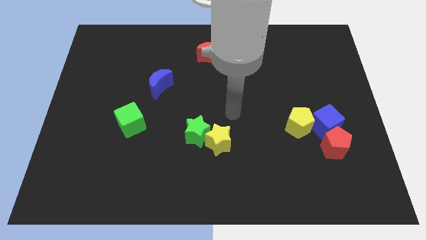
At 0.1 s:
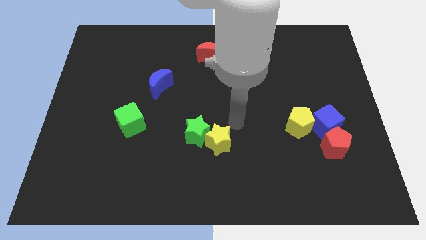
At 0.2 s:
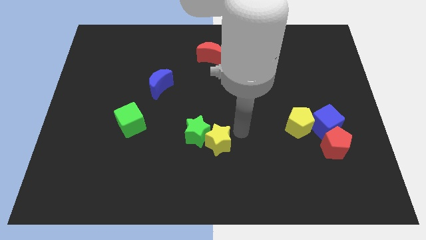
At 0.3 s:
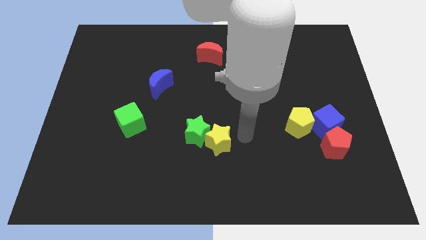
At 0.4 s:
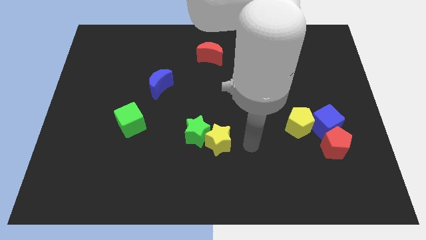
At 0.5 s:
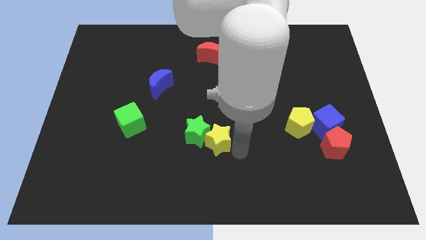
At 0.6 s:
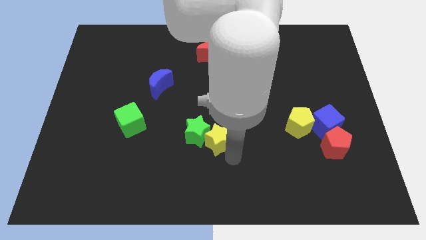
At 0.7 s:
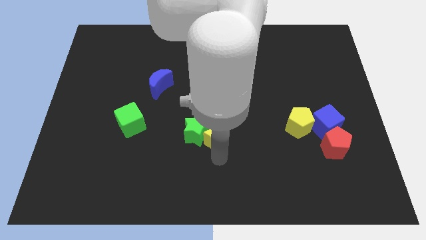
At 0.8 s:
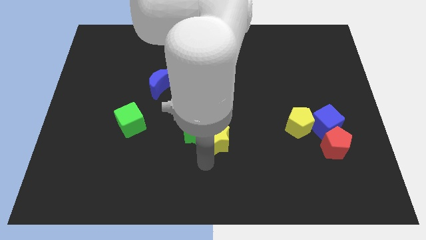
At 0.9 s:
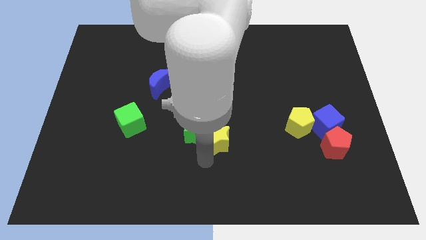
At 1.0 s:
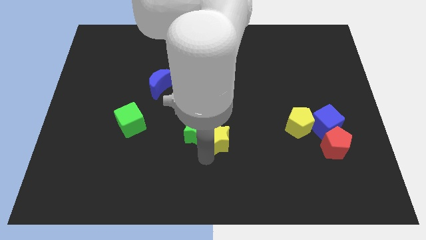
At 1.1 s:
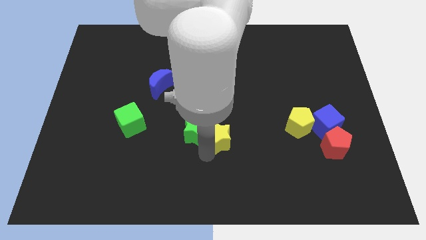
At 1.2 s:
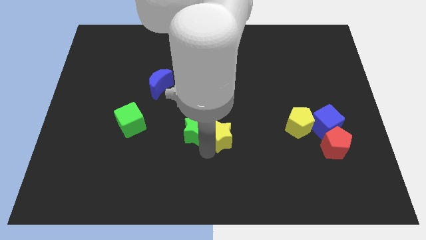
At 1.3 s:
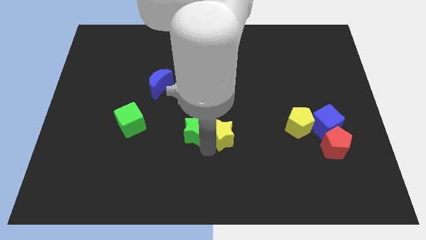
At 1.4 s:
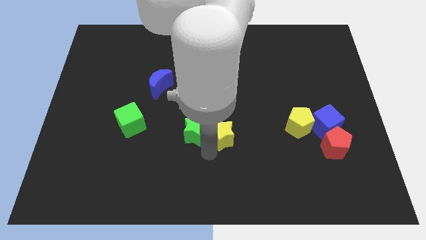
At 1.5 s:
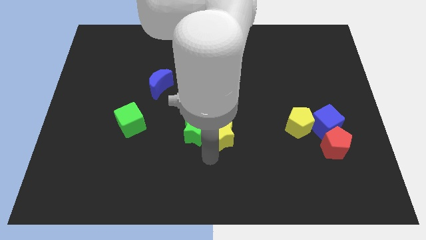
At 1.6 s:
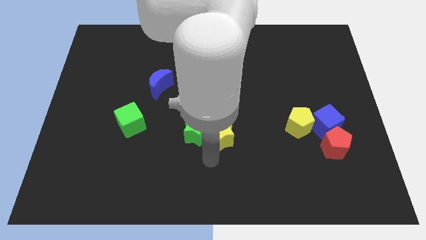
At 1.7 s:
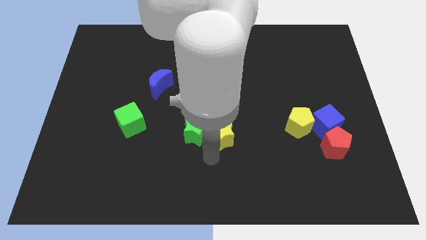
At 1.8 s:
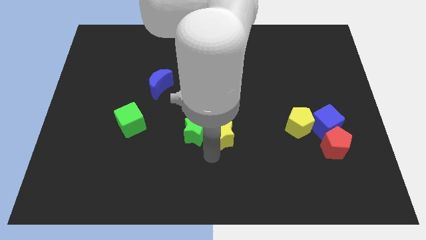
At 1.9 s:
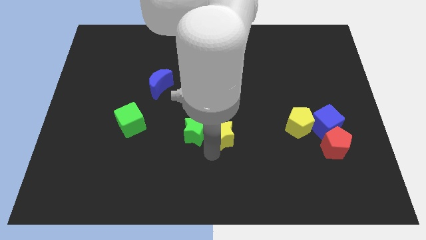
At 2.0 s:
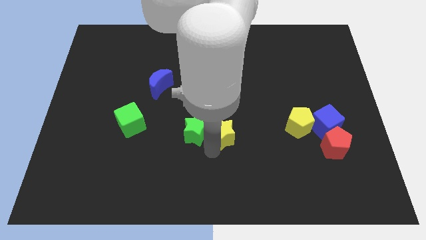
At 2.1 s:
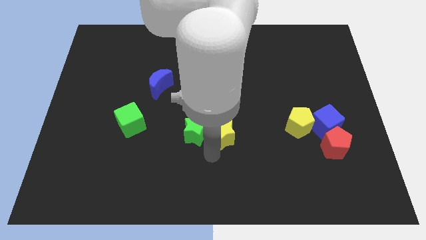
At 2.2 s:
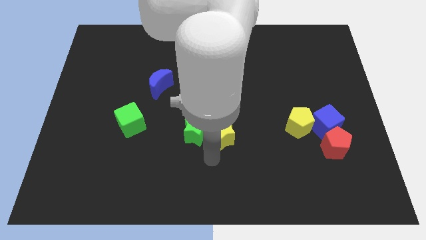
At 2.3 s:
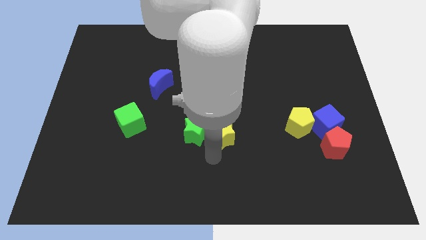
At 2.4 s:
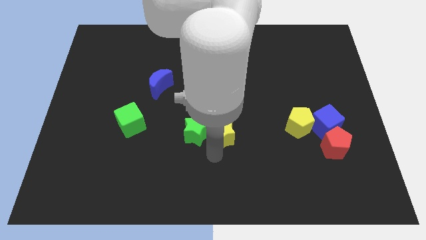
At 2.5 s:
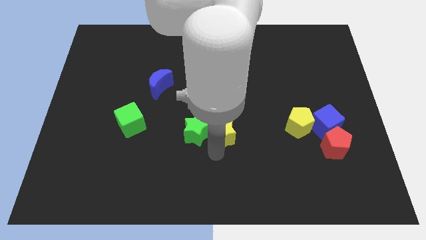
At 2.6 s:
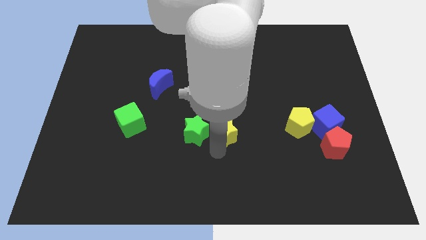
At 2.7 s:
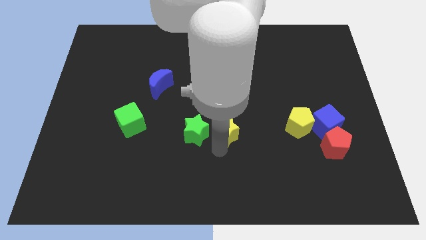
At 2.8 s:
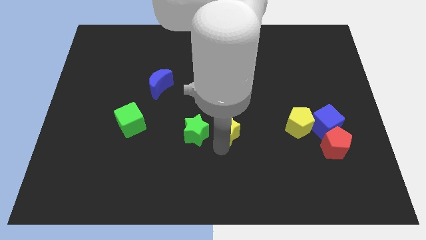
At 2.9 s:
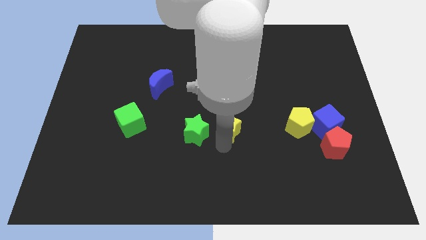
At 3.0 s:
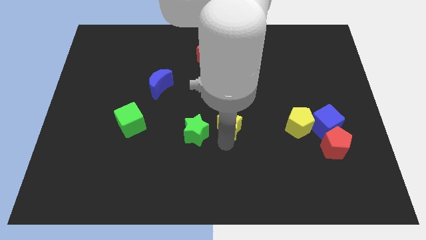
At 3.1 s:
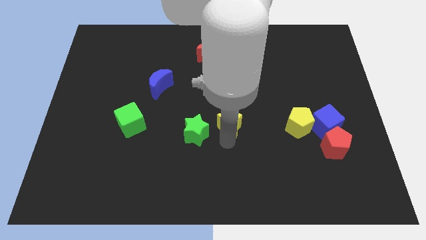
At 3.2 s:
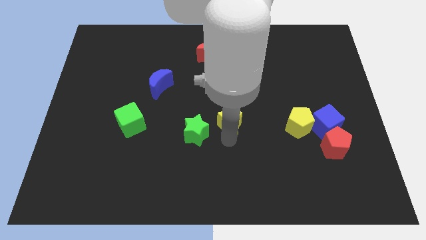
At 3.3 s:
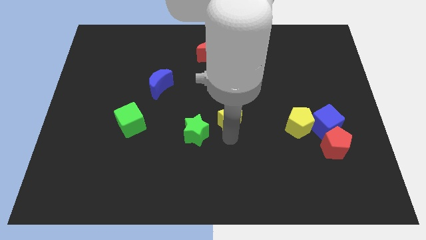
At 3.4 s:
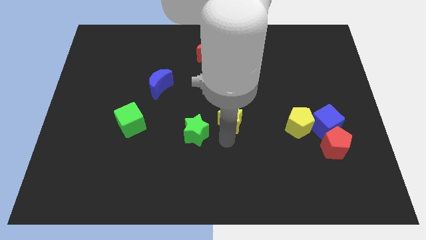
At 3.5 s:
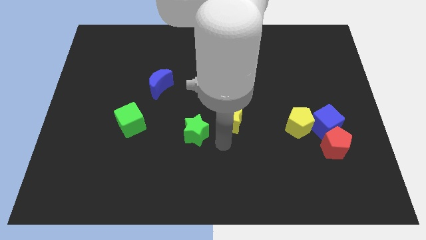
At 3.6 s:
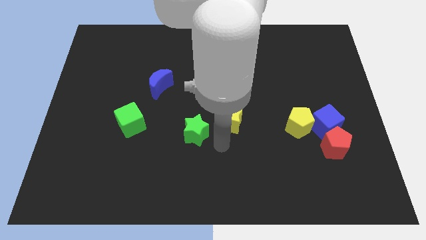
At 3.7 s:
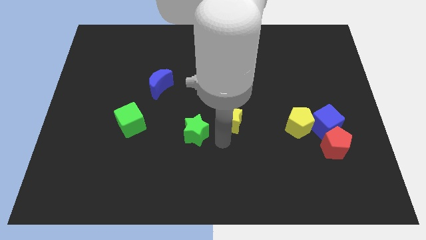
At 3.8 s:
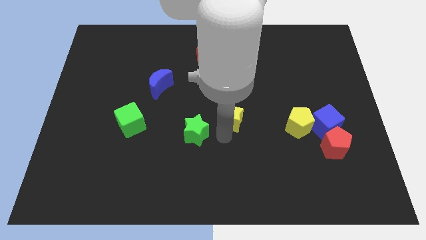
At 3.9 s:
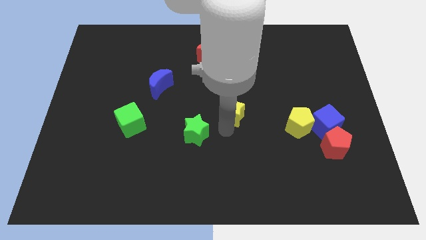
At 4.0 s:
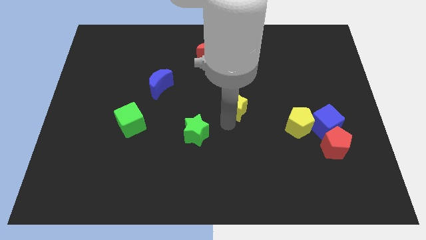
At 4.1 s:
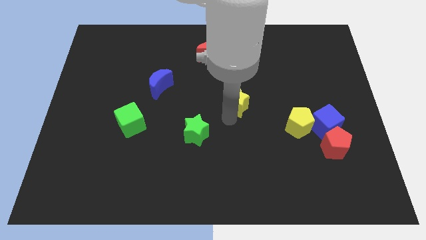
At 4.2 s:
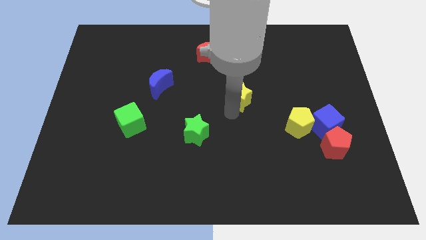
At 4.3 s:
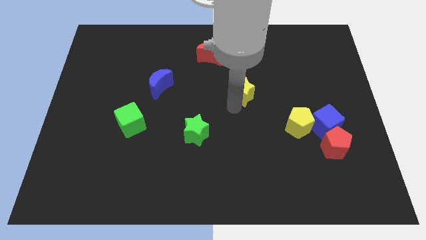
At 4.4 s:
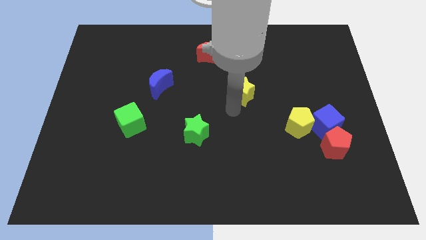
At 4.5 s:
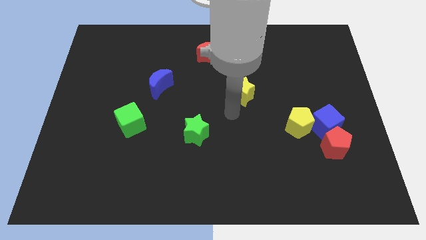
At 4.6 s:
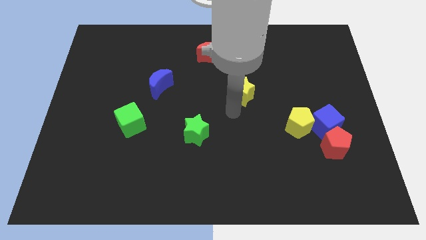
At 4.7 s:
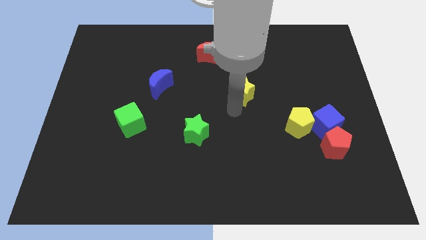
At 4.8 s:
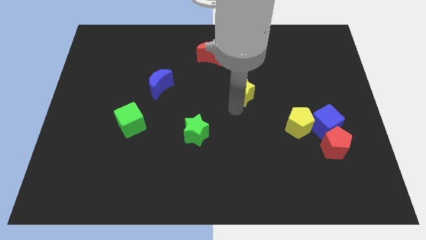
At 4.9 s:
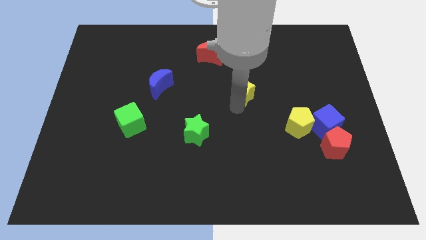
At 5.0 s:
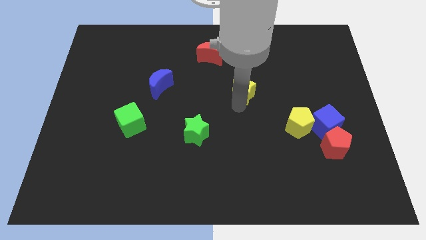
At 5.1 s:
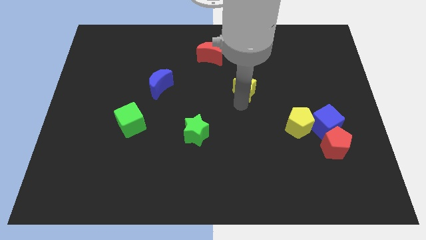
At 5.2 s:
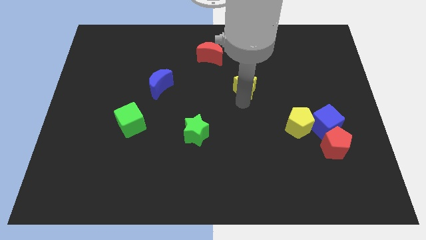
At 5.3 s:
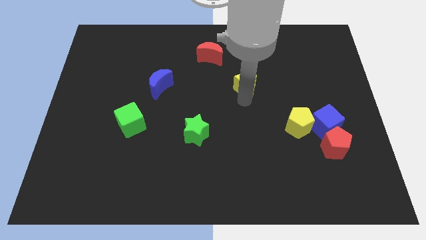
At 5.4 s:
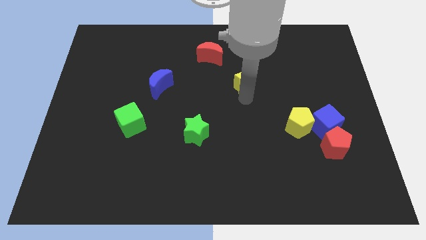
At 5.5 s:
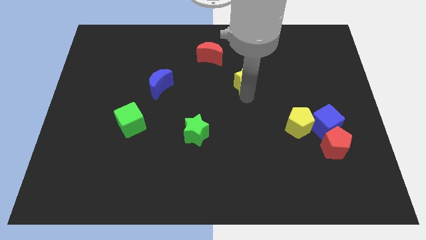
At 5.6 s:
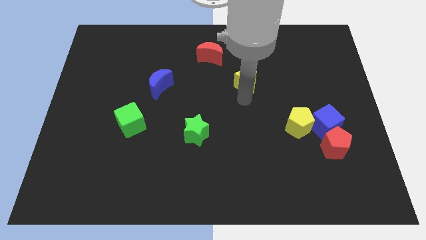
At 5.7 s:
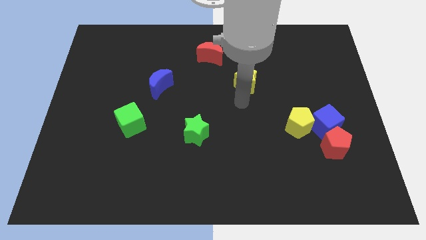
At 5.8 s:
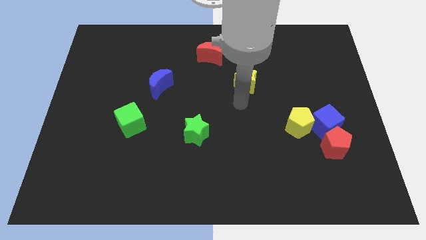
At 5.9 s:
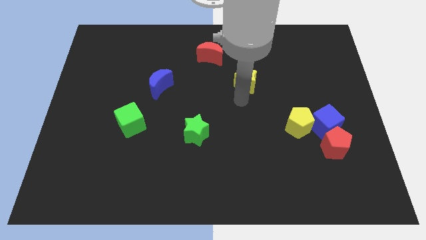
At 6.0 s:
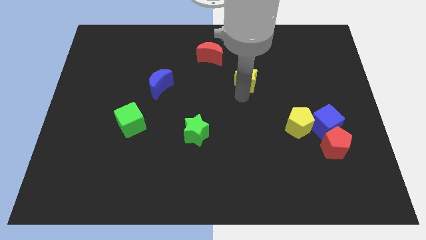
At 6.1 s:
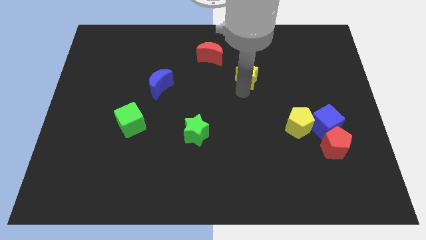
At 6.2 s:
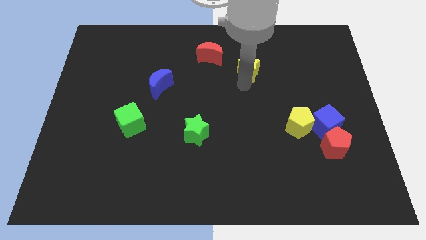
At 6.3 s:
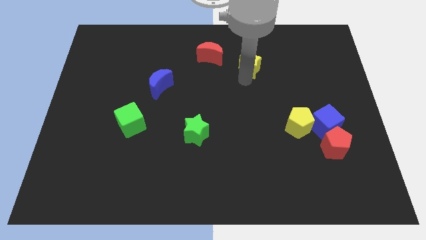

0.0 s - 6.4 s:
push the yellow star to the right of the red moon
